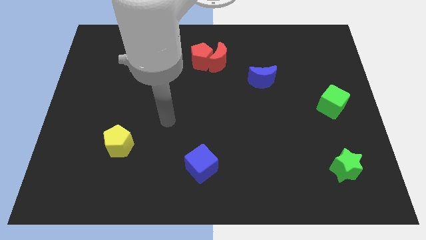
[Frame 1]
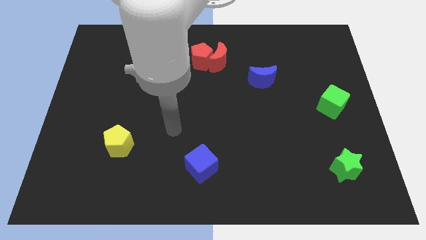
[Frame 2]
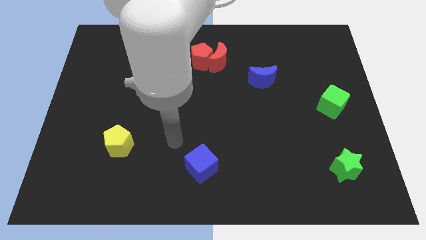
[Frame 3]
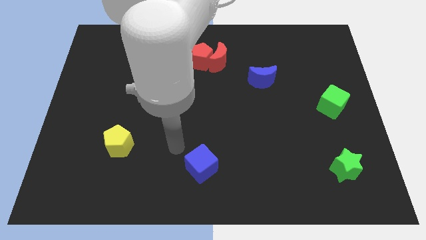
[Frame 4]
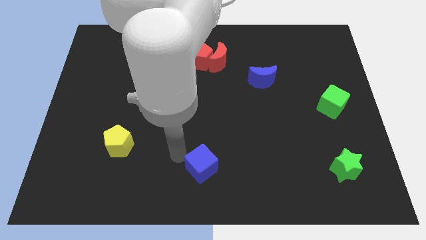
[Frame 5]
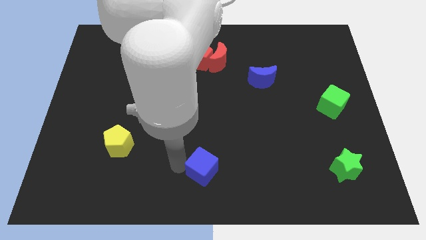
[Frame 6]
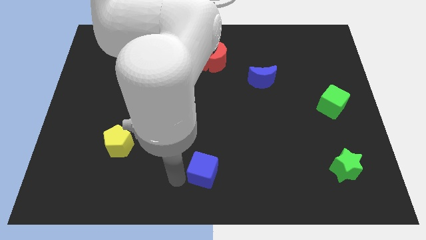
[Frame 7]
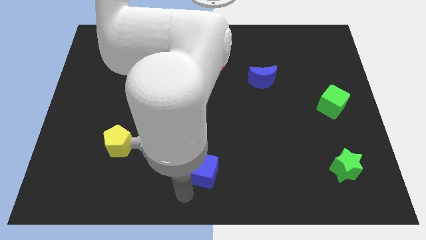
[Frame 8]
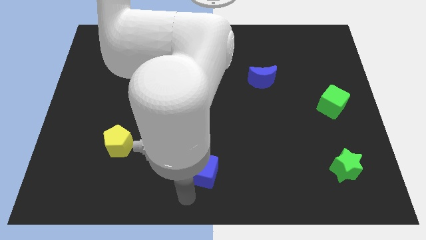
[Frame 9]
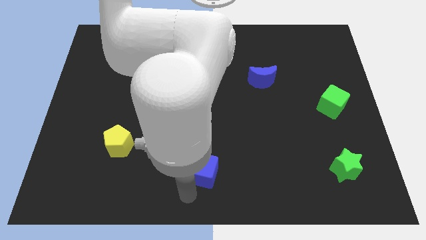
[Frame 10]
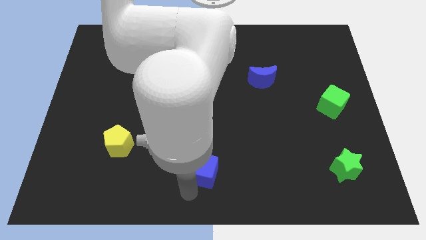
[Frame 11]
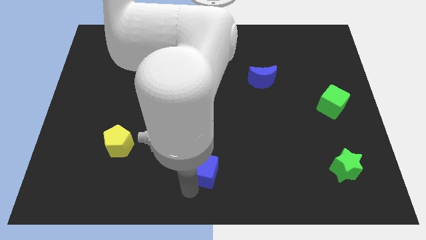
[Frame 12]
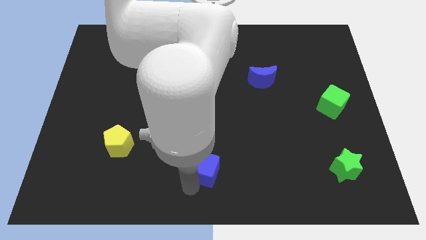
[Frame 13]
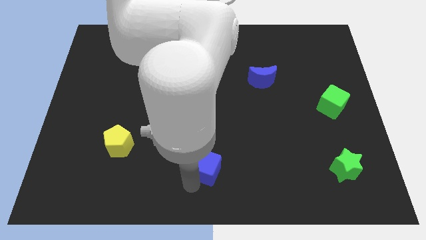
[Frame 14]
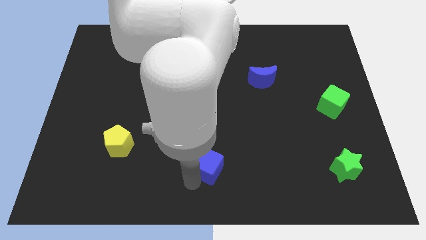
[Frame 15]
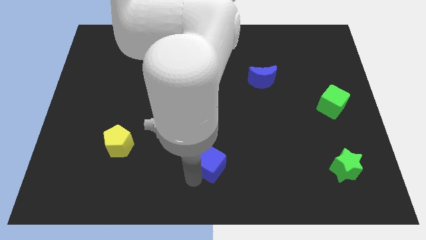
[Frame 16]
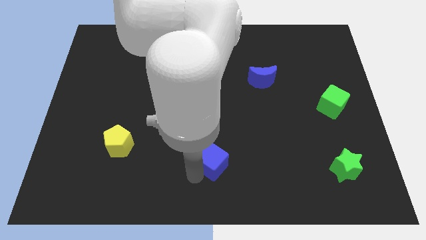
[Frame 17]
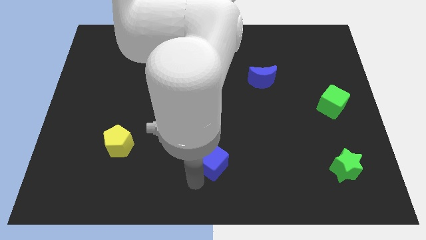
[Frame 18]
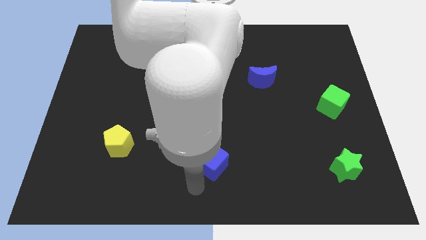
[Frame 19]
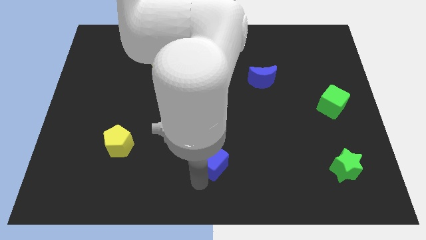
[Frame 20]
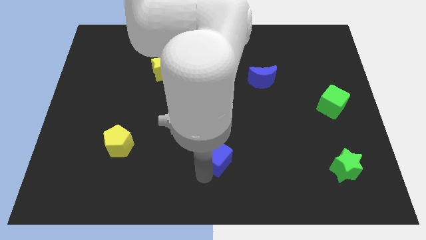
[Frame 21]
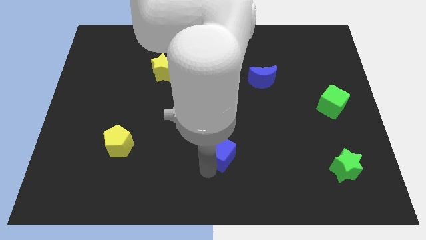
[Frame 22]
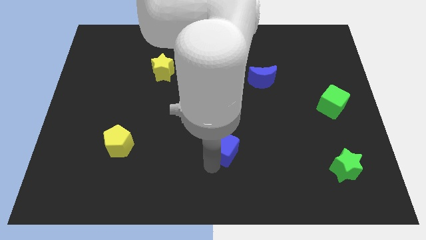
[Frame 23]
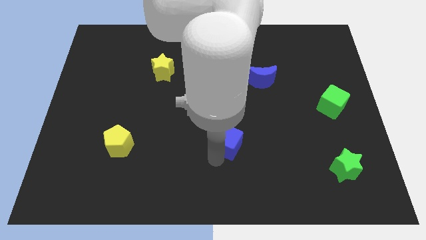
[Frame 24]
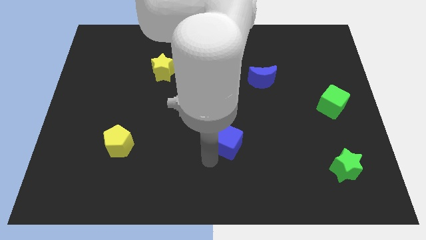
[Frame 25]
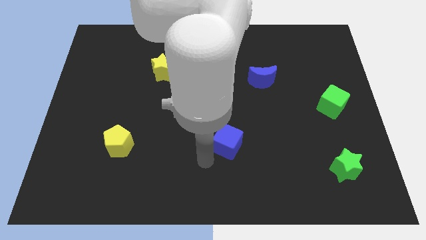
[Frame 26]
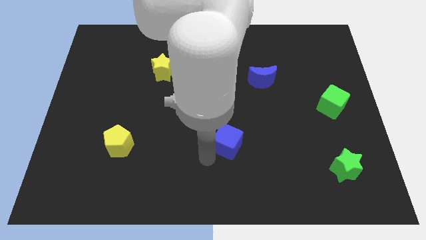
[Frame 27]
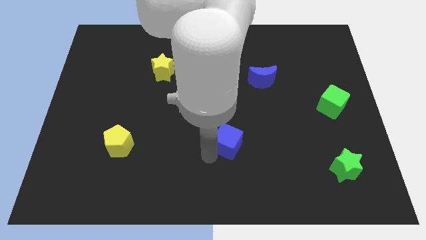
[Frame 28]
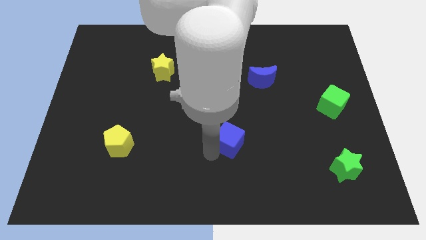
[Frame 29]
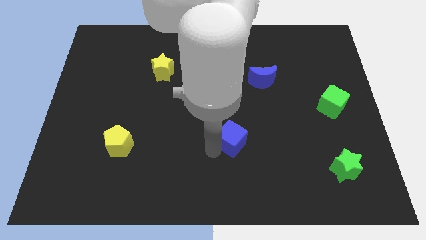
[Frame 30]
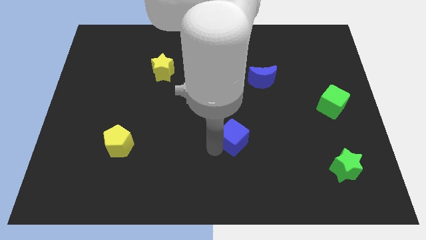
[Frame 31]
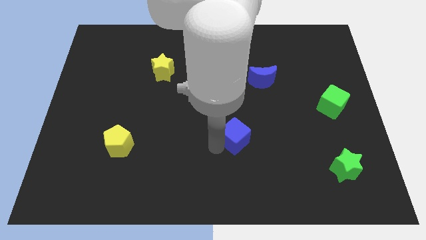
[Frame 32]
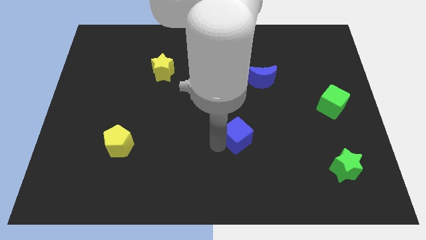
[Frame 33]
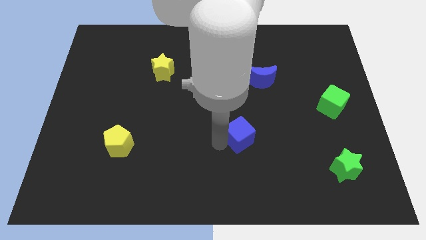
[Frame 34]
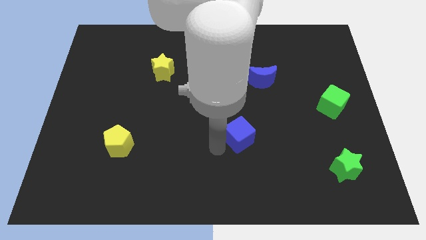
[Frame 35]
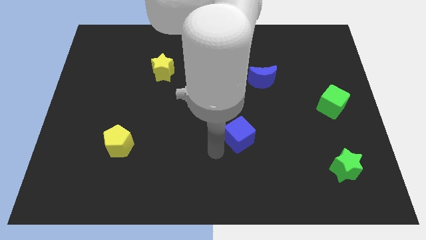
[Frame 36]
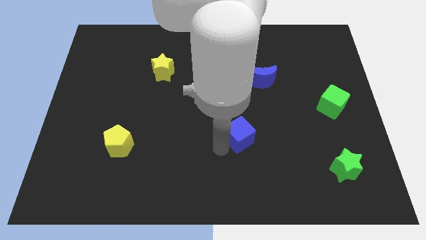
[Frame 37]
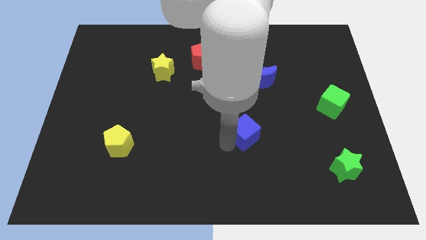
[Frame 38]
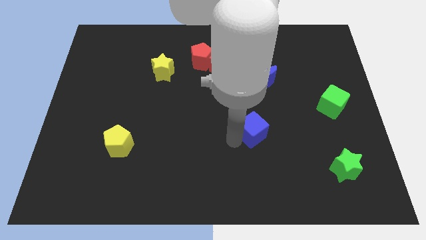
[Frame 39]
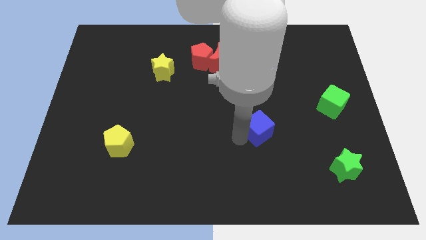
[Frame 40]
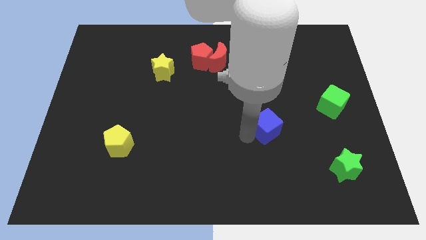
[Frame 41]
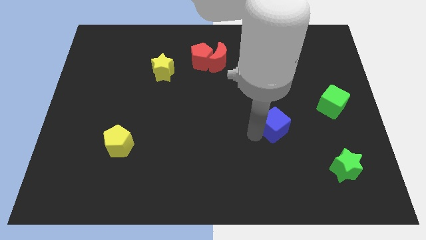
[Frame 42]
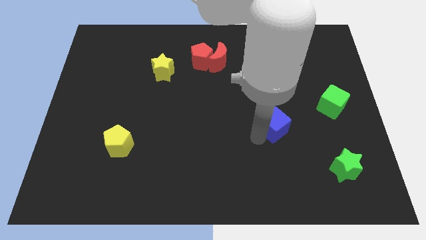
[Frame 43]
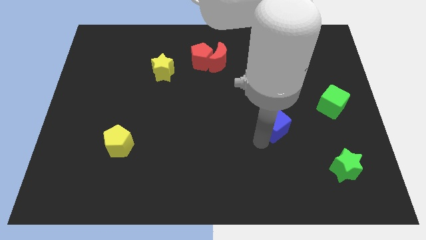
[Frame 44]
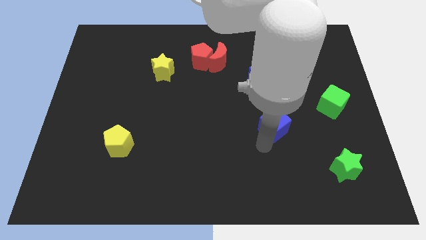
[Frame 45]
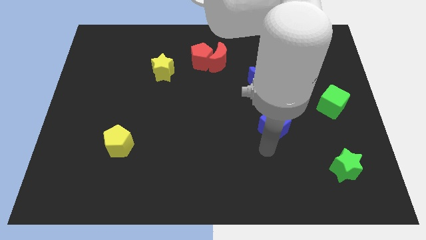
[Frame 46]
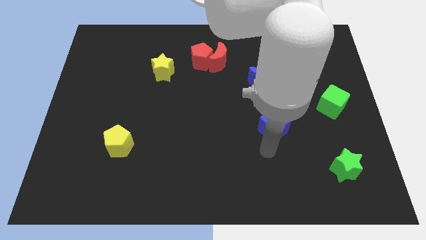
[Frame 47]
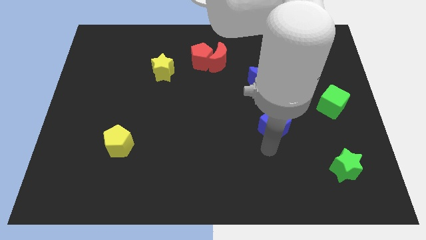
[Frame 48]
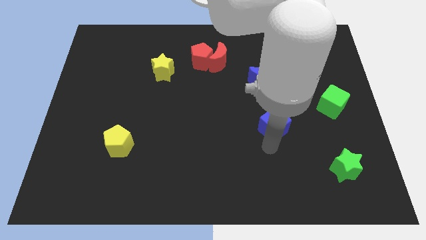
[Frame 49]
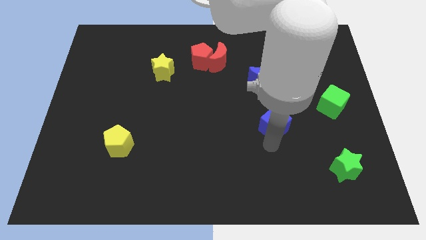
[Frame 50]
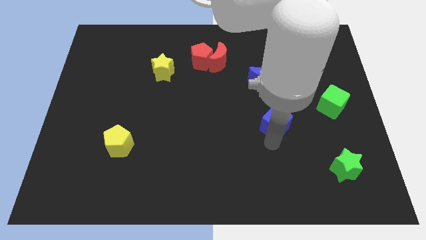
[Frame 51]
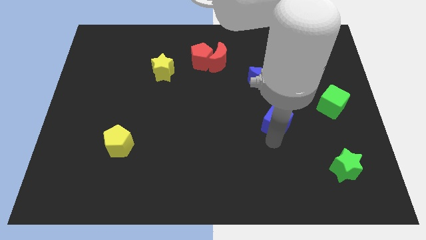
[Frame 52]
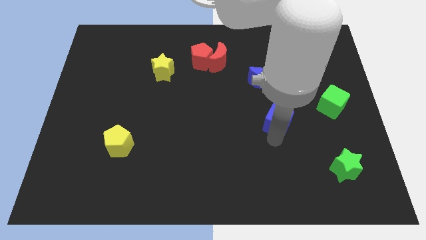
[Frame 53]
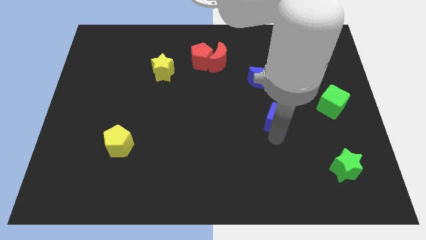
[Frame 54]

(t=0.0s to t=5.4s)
push the blue cube upwards and right diagonally

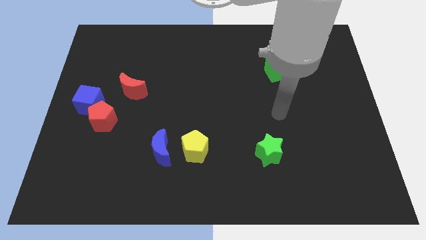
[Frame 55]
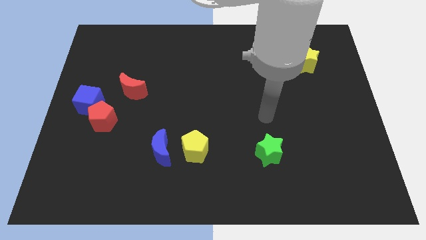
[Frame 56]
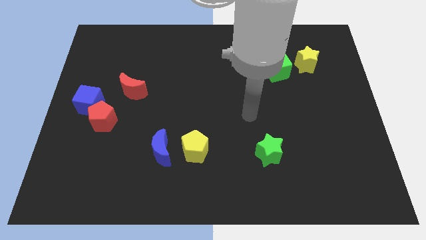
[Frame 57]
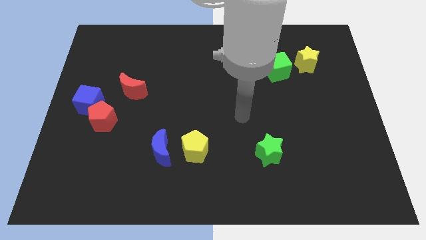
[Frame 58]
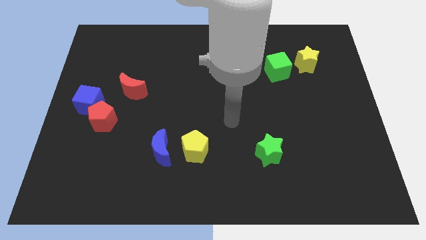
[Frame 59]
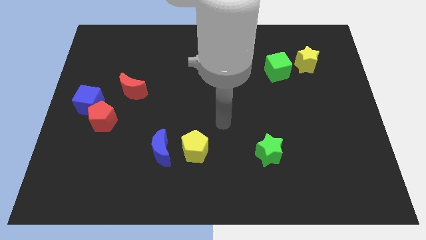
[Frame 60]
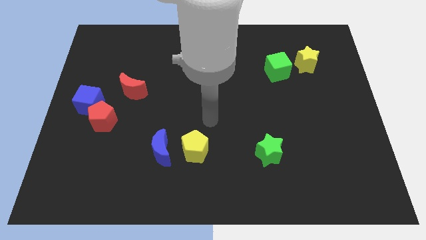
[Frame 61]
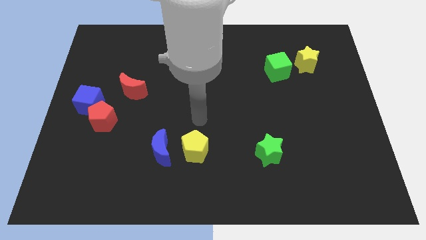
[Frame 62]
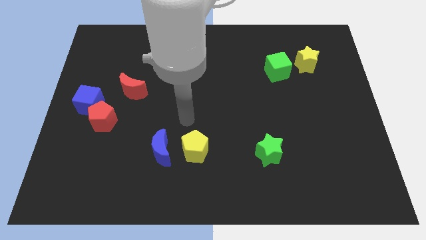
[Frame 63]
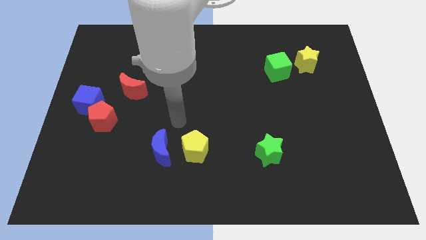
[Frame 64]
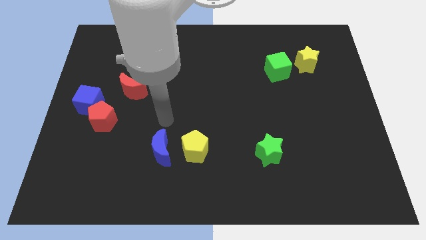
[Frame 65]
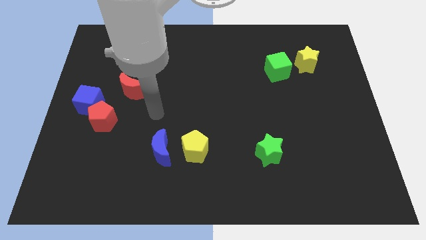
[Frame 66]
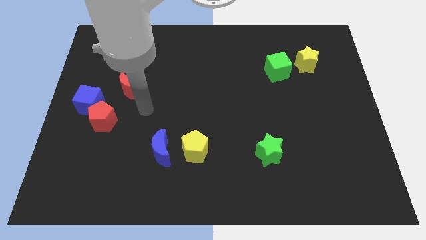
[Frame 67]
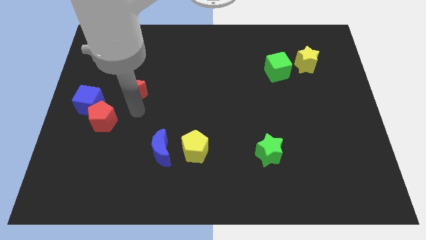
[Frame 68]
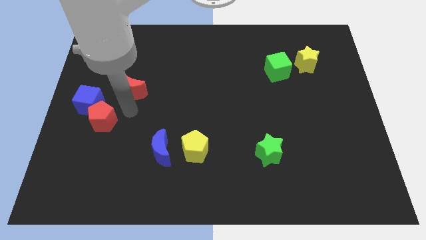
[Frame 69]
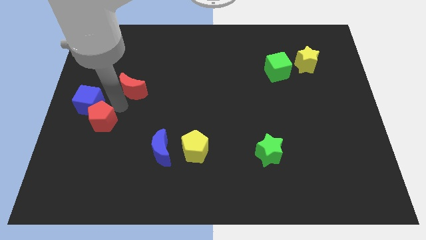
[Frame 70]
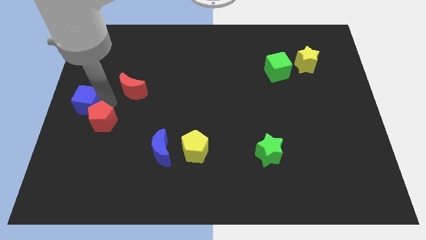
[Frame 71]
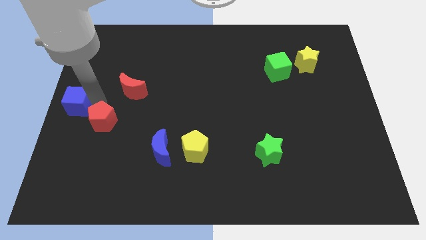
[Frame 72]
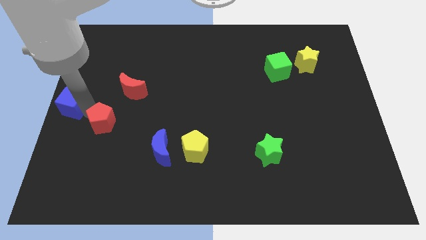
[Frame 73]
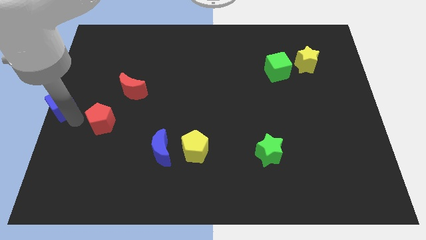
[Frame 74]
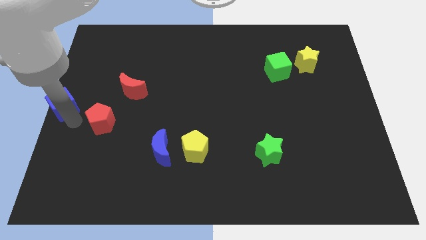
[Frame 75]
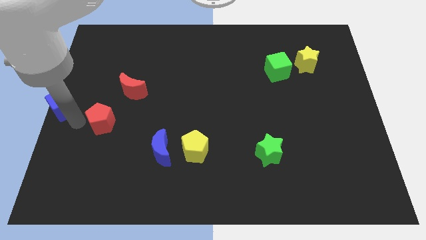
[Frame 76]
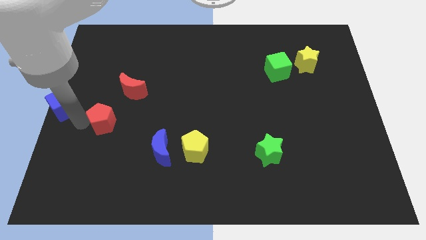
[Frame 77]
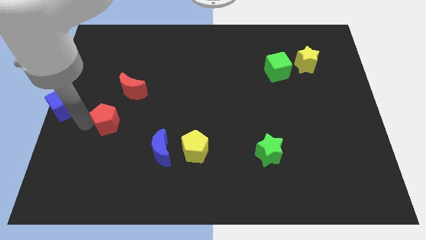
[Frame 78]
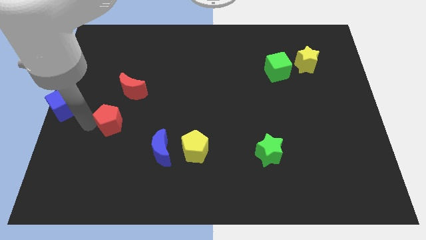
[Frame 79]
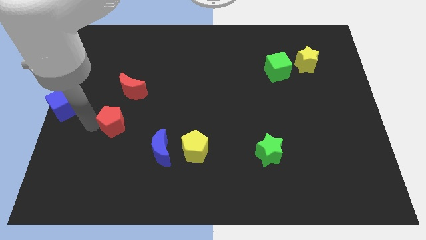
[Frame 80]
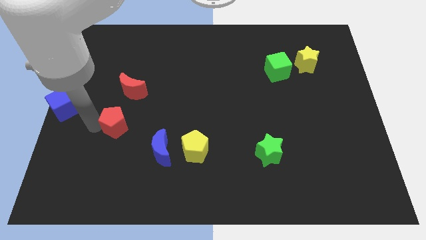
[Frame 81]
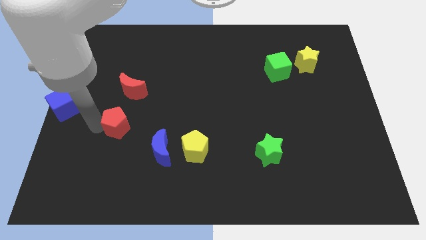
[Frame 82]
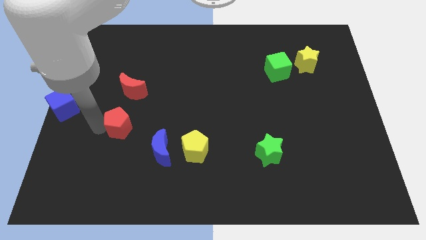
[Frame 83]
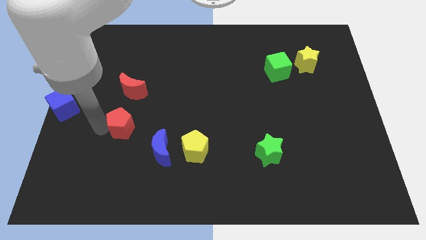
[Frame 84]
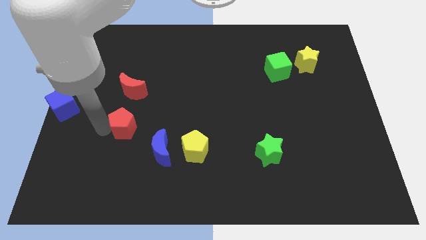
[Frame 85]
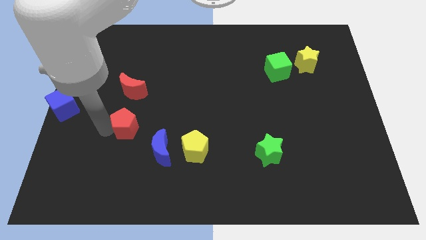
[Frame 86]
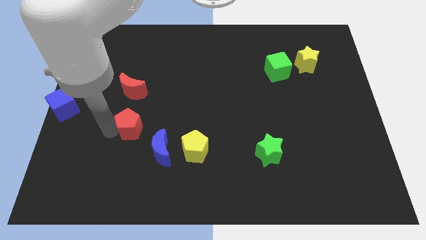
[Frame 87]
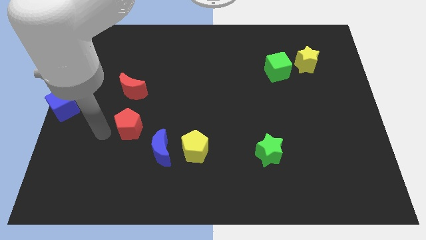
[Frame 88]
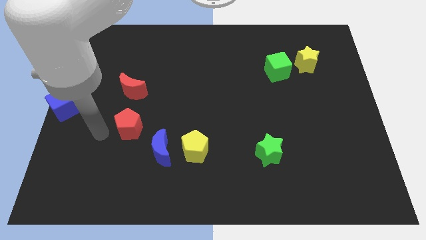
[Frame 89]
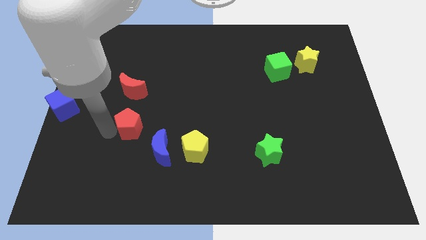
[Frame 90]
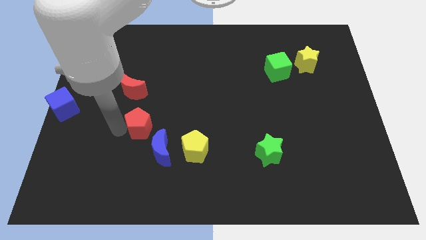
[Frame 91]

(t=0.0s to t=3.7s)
slightly push the red pentagon to the right
